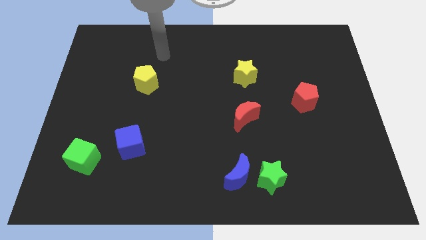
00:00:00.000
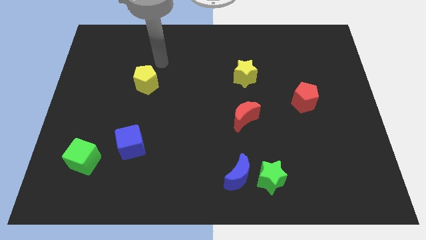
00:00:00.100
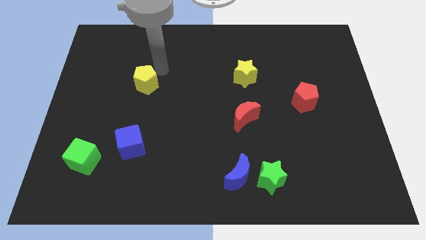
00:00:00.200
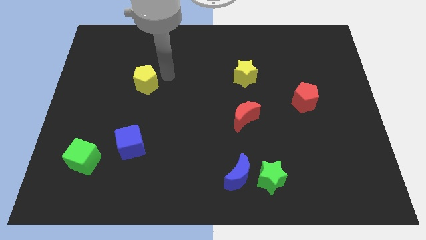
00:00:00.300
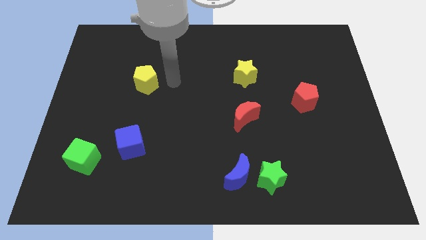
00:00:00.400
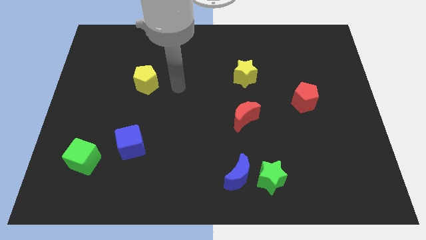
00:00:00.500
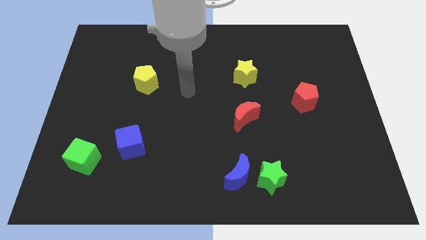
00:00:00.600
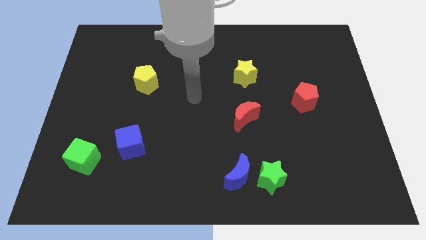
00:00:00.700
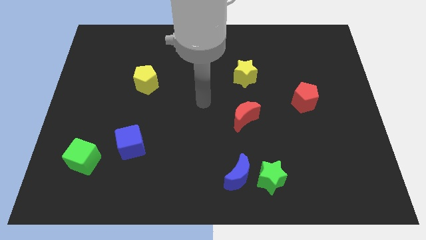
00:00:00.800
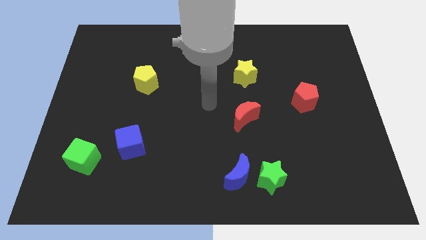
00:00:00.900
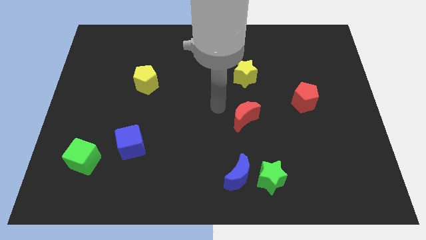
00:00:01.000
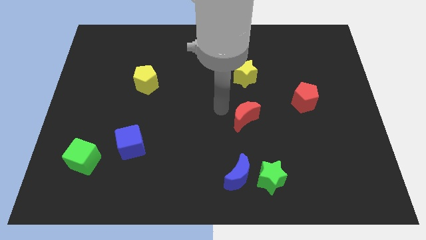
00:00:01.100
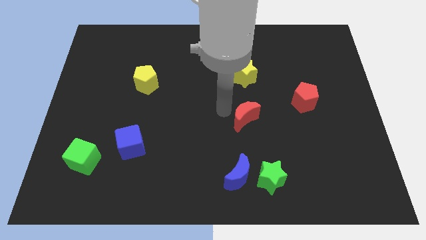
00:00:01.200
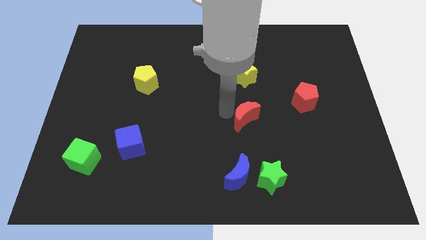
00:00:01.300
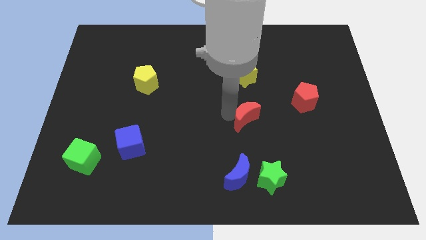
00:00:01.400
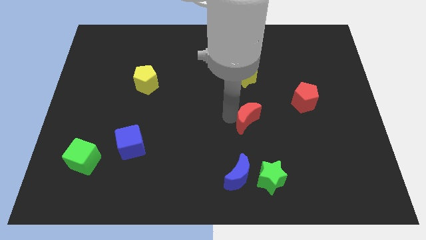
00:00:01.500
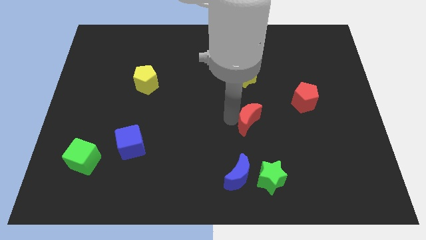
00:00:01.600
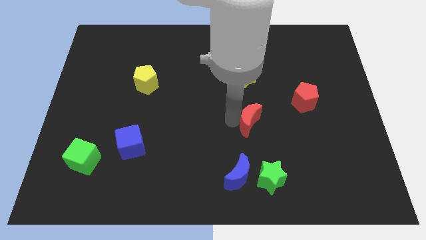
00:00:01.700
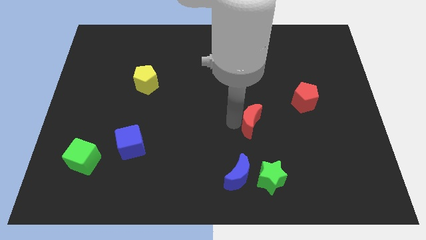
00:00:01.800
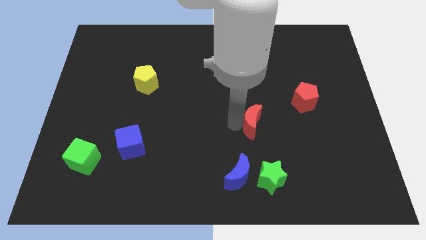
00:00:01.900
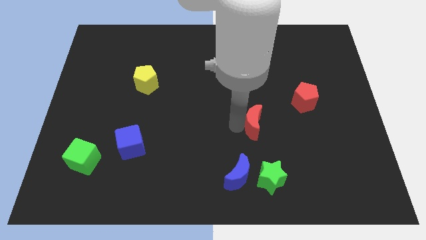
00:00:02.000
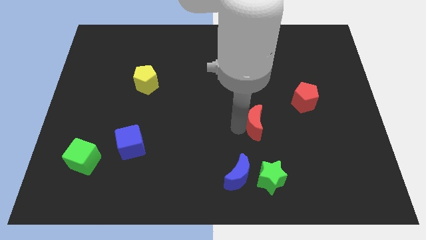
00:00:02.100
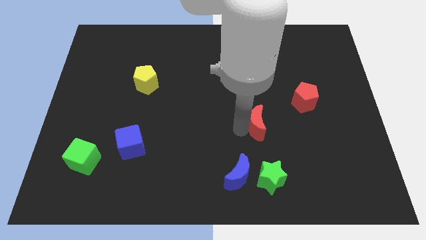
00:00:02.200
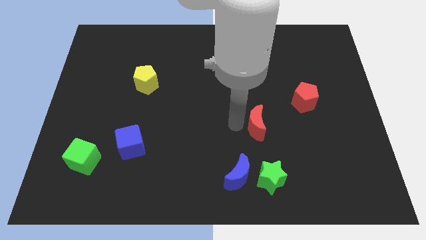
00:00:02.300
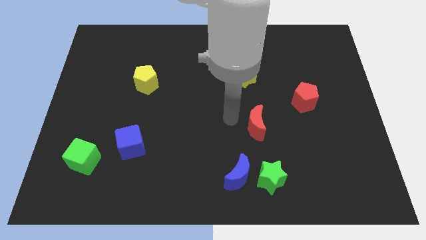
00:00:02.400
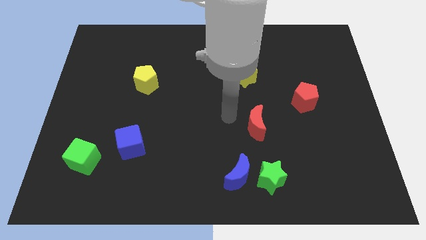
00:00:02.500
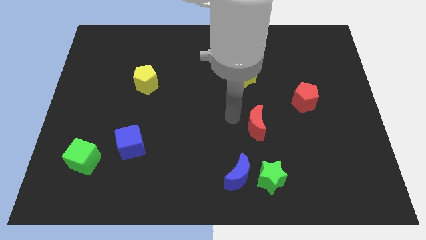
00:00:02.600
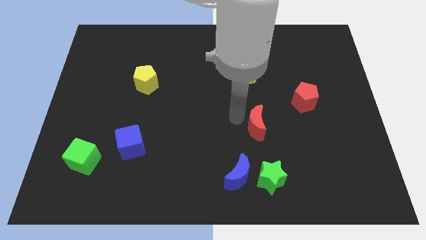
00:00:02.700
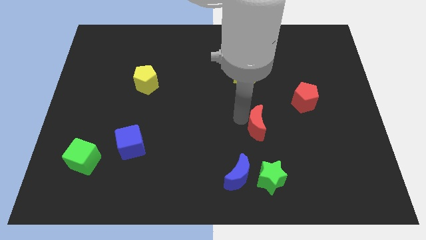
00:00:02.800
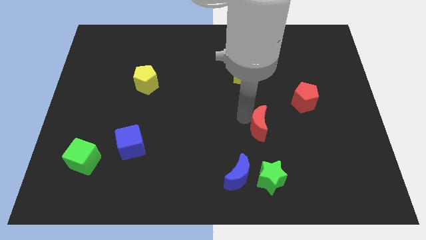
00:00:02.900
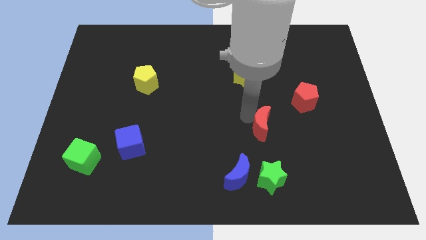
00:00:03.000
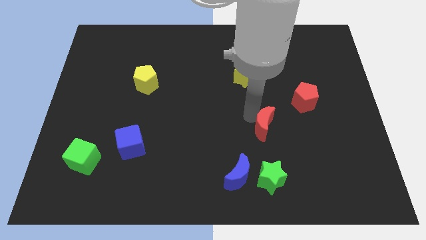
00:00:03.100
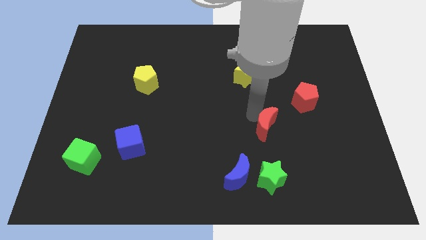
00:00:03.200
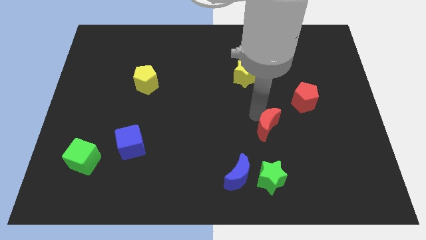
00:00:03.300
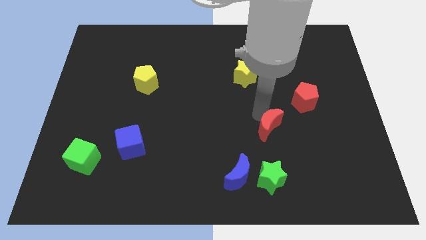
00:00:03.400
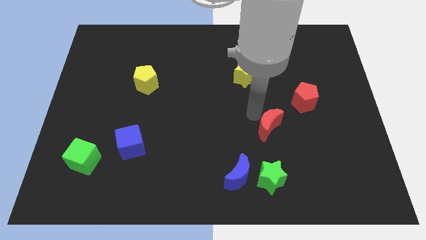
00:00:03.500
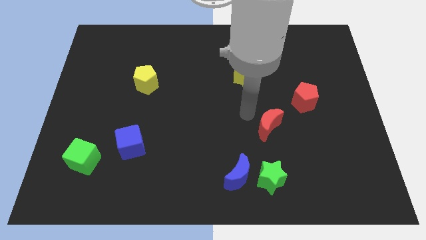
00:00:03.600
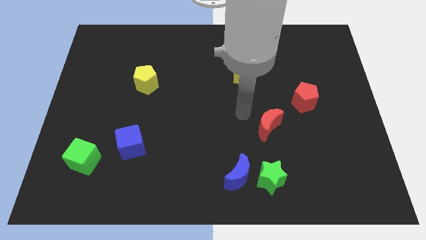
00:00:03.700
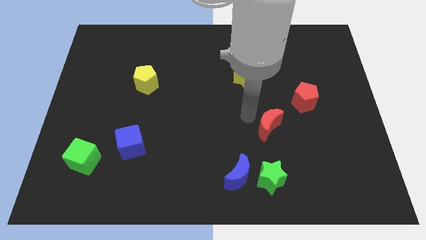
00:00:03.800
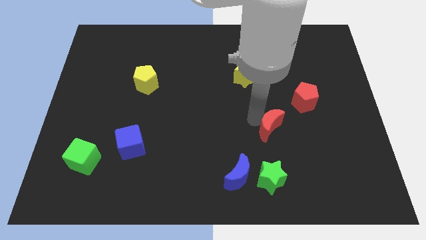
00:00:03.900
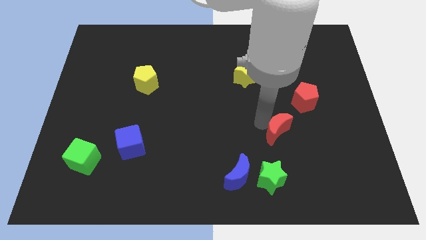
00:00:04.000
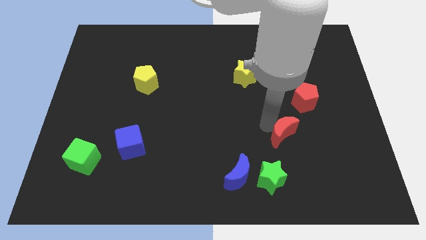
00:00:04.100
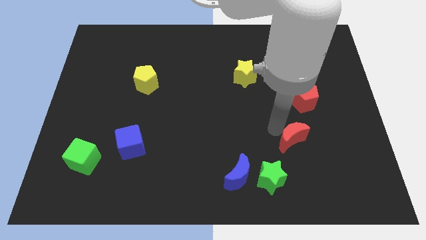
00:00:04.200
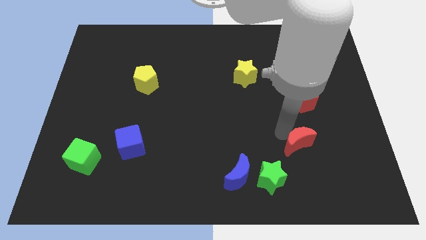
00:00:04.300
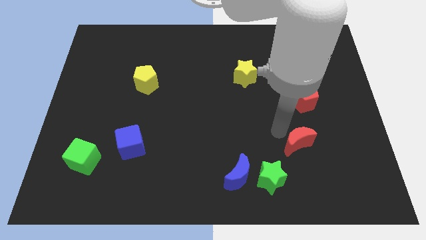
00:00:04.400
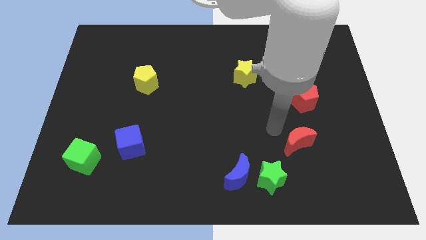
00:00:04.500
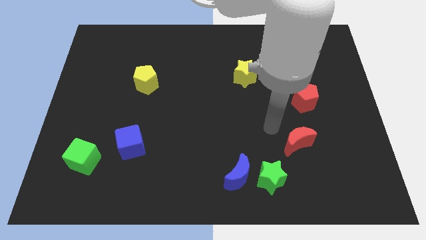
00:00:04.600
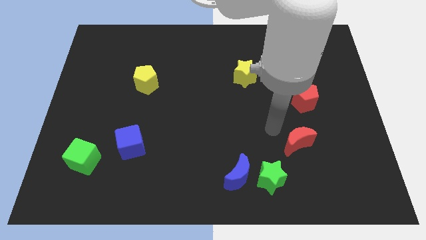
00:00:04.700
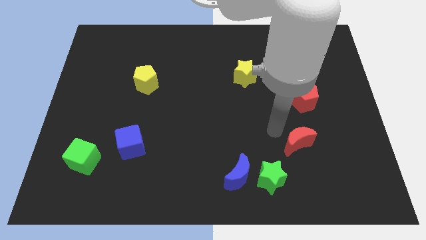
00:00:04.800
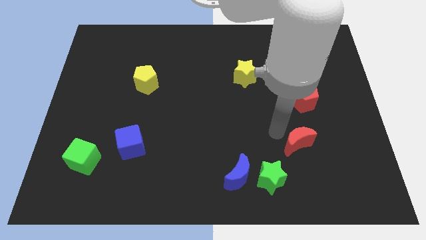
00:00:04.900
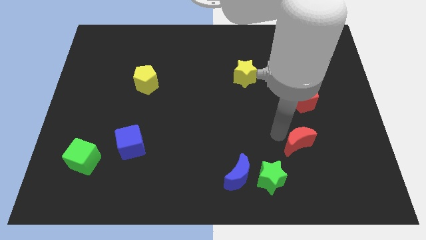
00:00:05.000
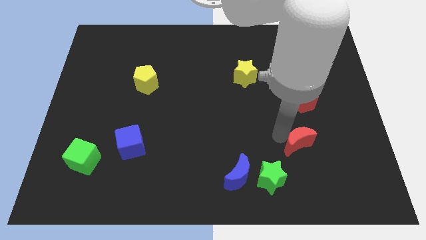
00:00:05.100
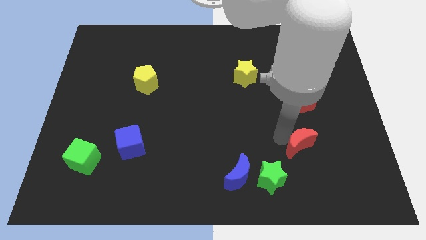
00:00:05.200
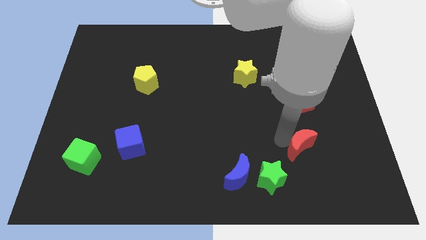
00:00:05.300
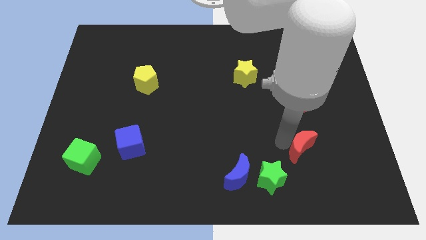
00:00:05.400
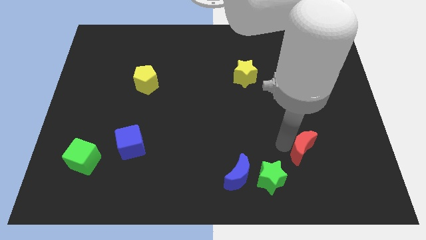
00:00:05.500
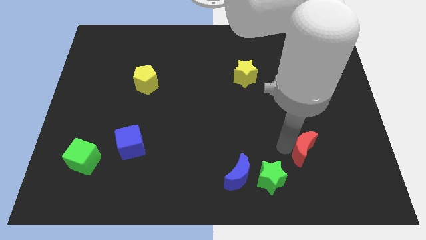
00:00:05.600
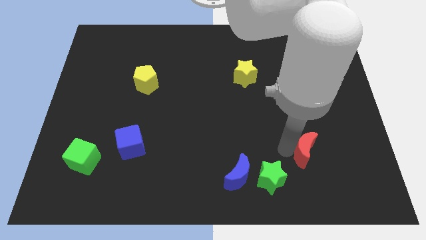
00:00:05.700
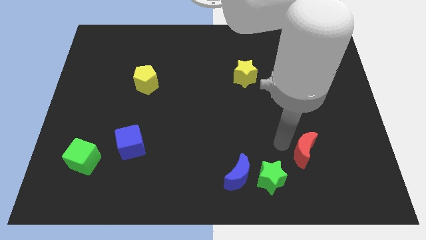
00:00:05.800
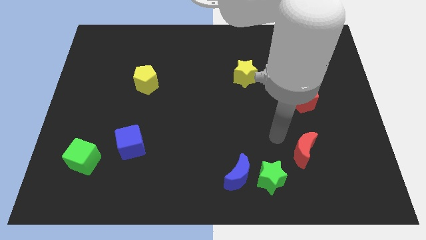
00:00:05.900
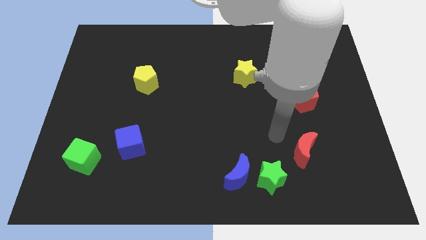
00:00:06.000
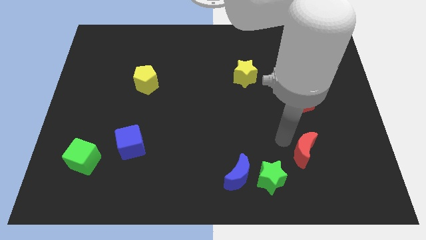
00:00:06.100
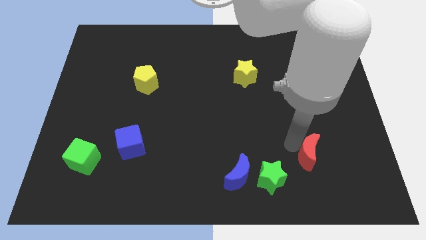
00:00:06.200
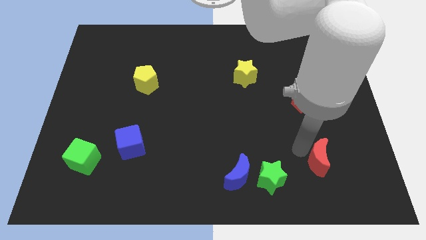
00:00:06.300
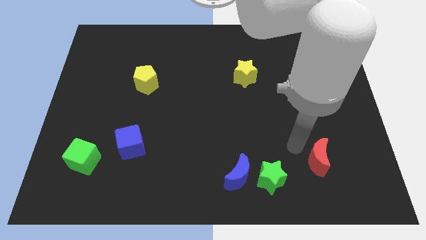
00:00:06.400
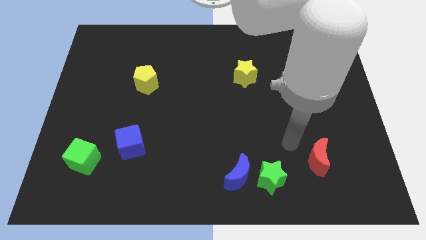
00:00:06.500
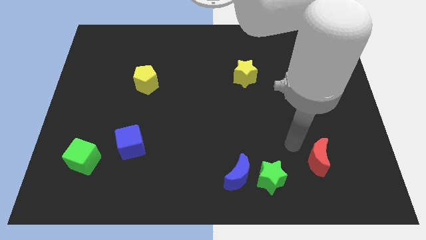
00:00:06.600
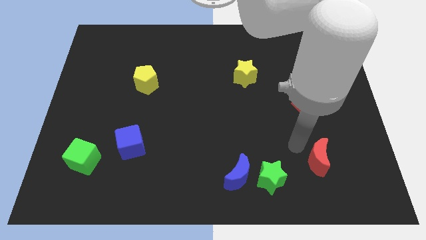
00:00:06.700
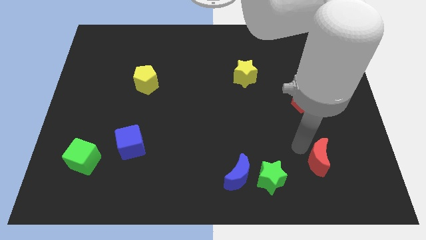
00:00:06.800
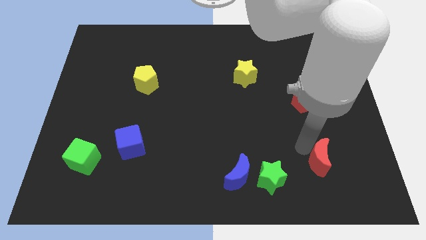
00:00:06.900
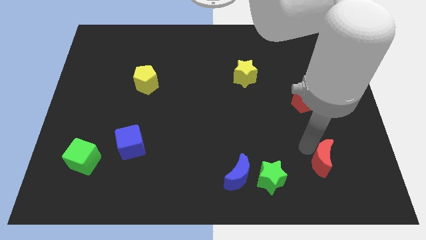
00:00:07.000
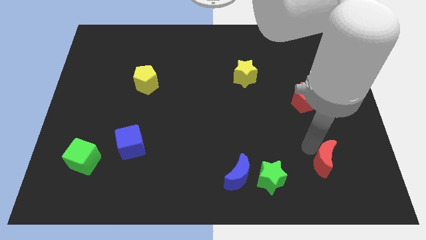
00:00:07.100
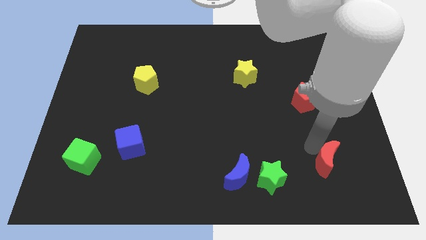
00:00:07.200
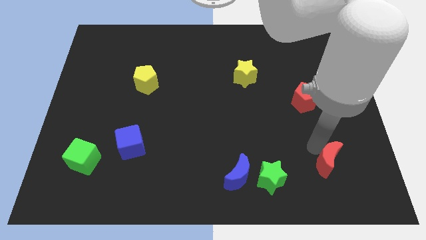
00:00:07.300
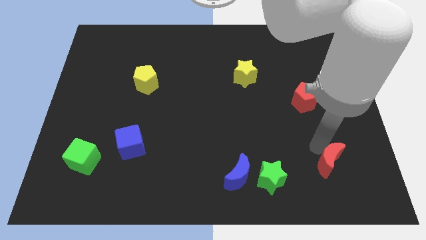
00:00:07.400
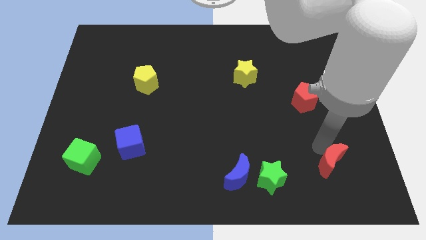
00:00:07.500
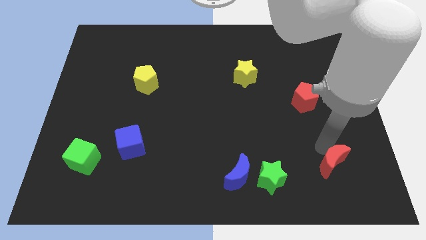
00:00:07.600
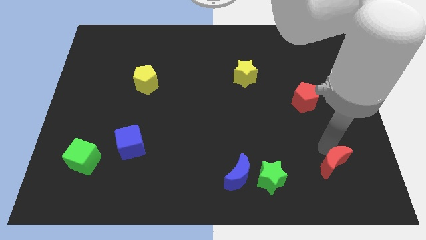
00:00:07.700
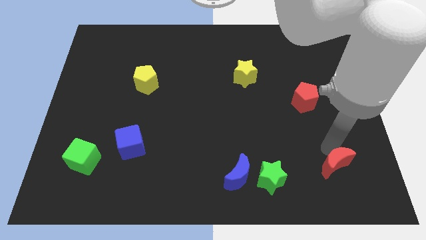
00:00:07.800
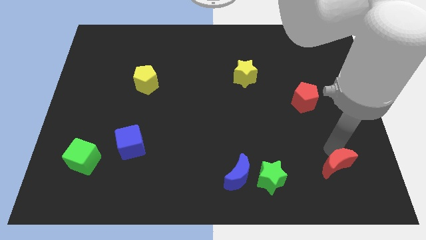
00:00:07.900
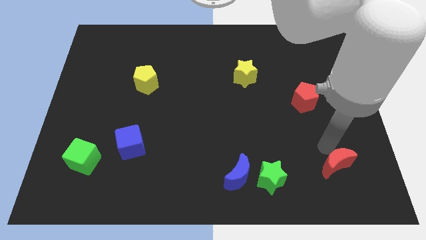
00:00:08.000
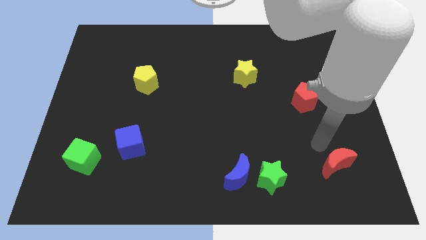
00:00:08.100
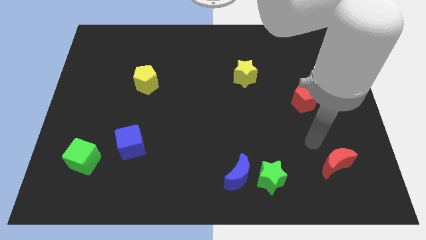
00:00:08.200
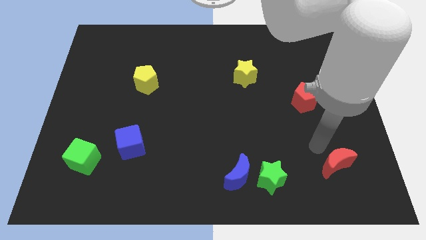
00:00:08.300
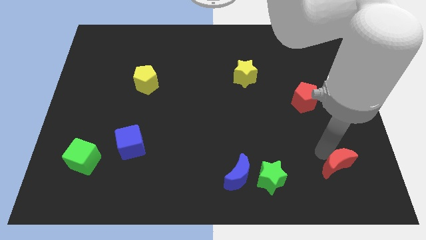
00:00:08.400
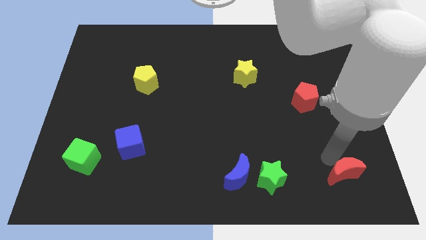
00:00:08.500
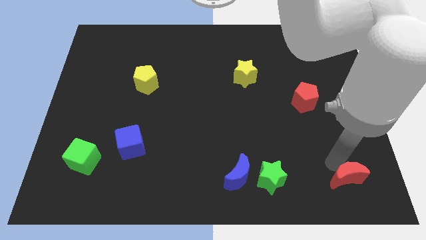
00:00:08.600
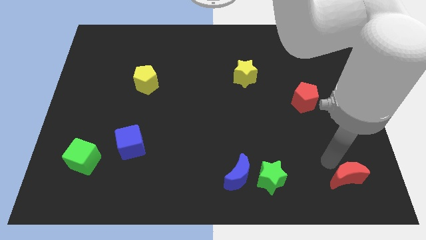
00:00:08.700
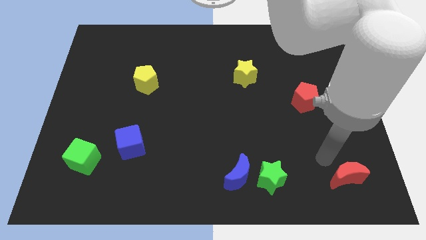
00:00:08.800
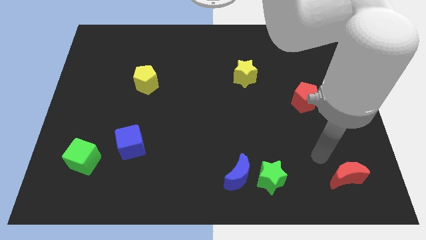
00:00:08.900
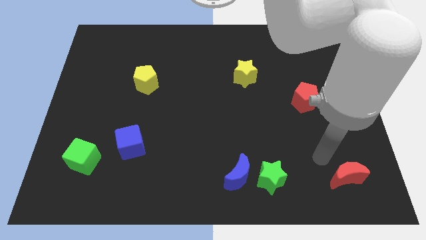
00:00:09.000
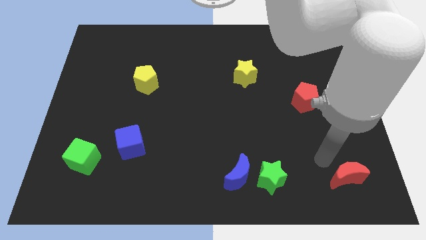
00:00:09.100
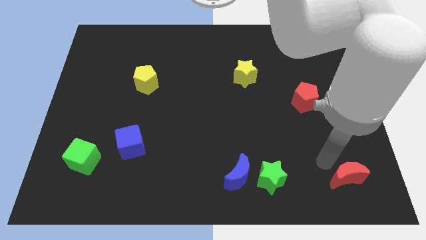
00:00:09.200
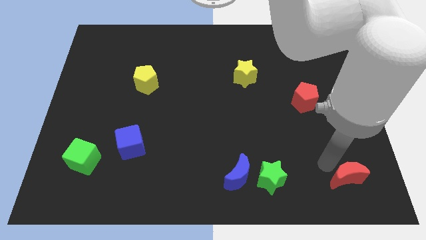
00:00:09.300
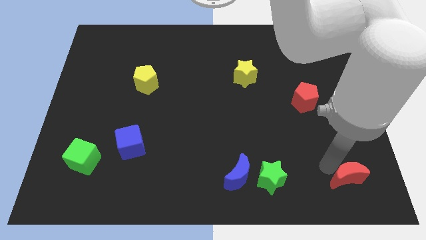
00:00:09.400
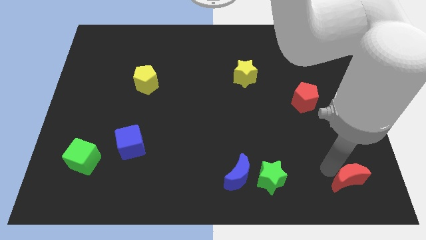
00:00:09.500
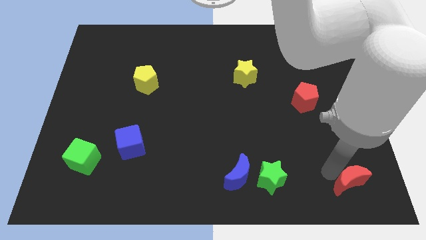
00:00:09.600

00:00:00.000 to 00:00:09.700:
move the red moon to the bottom right
